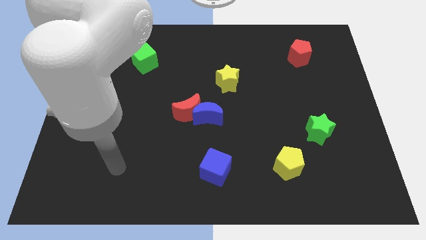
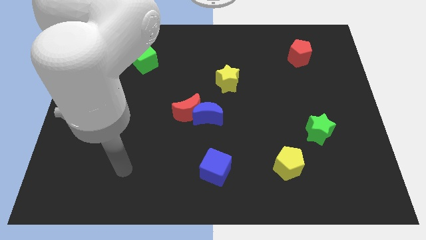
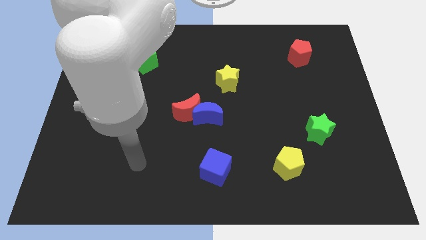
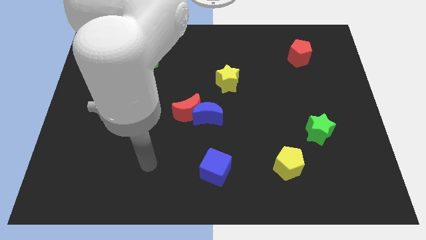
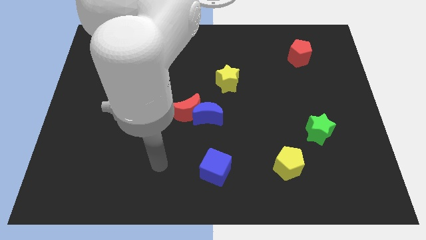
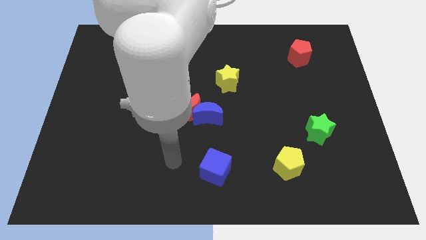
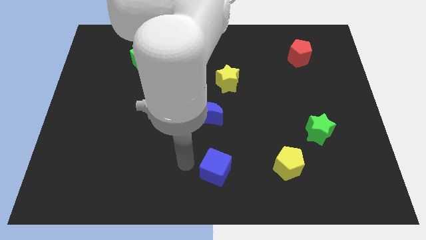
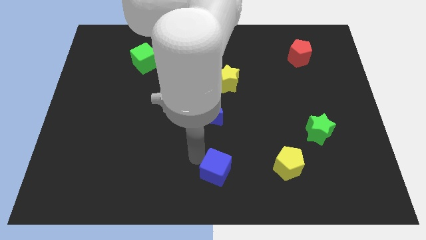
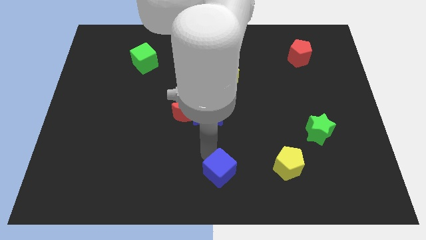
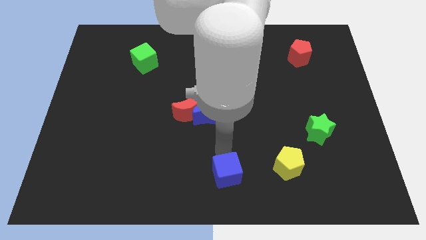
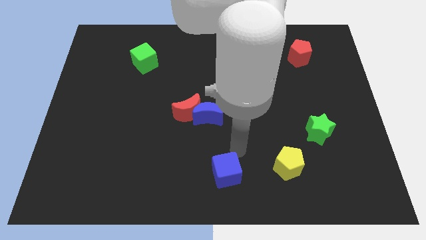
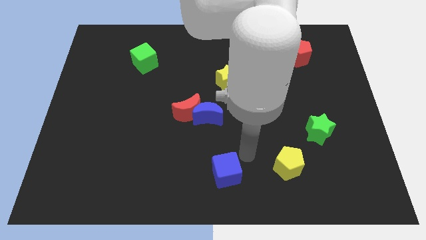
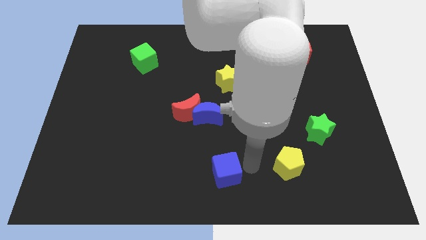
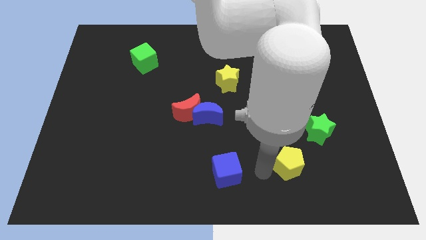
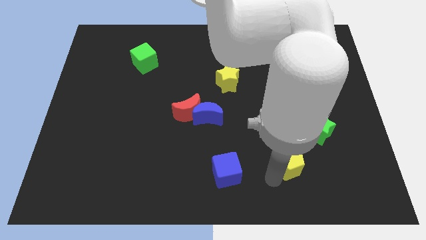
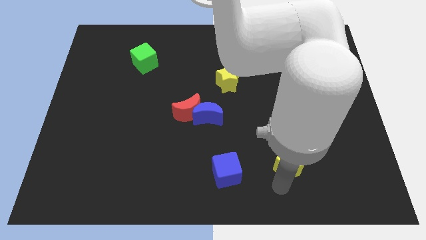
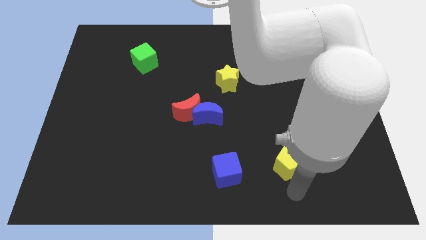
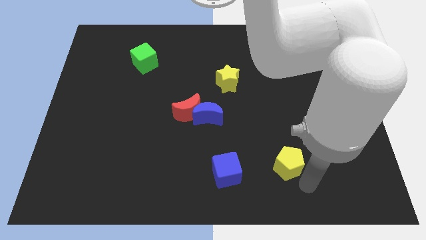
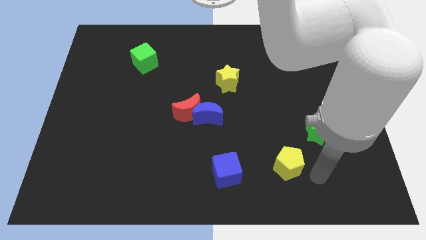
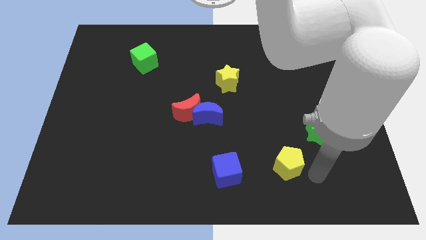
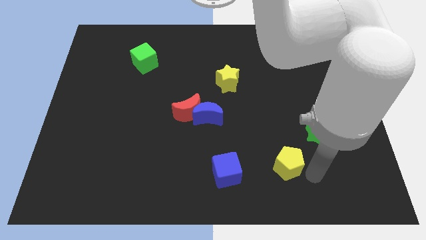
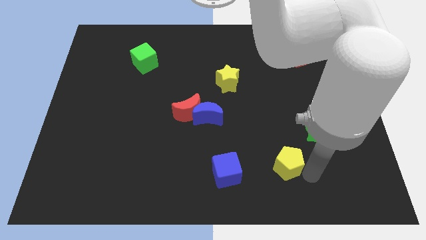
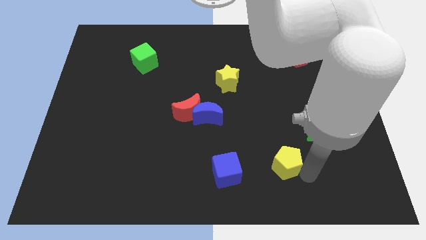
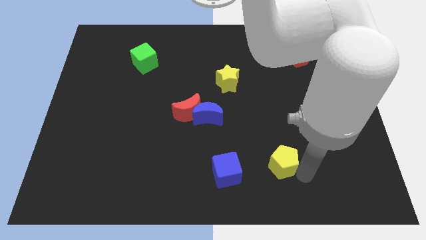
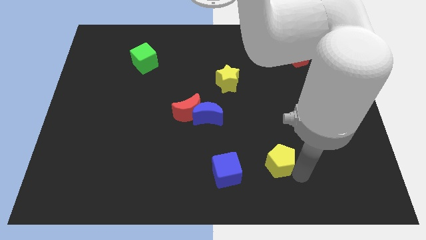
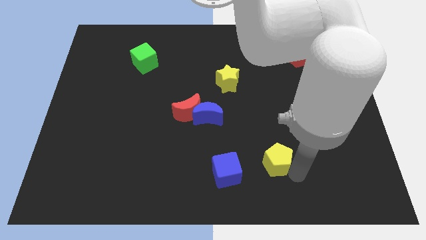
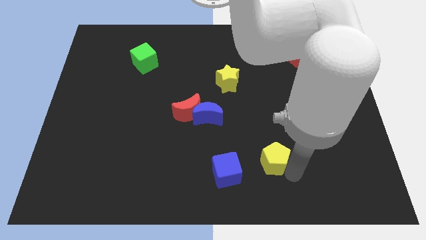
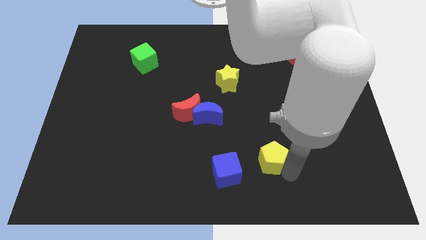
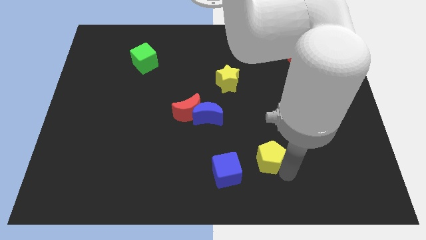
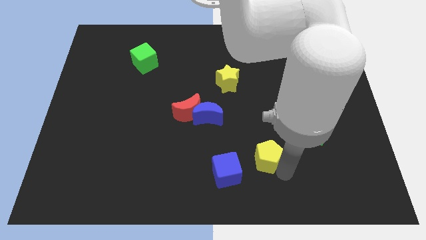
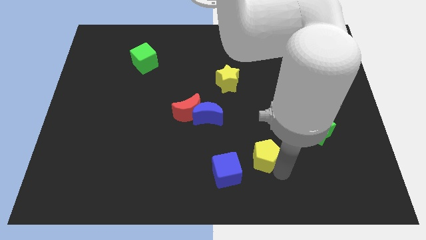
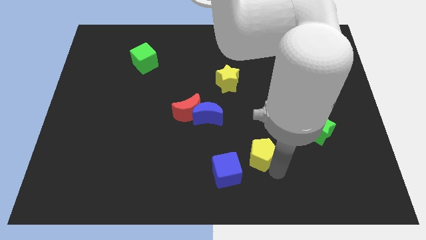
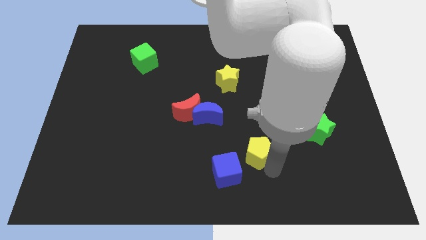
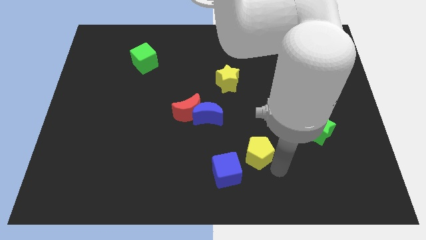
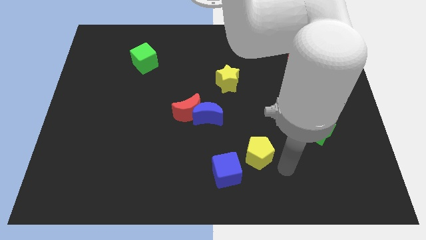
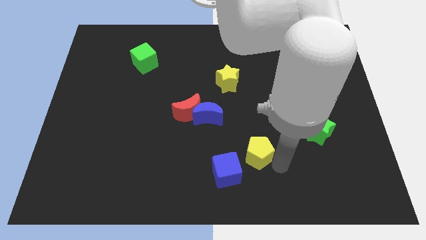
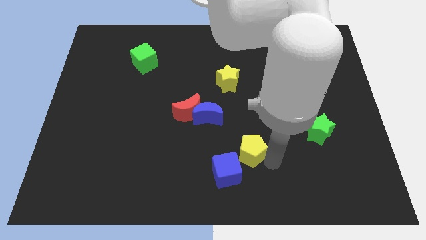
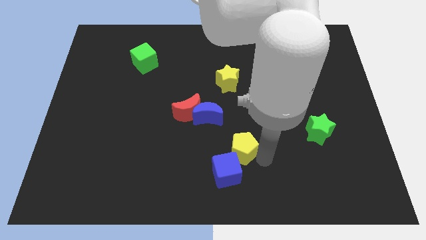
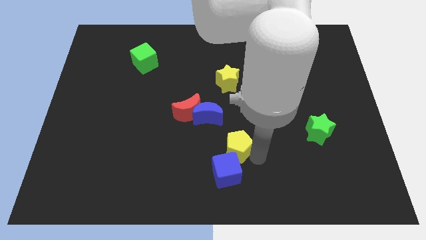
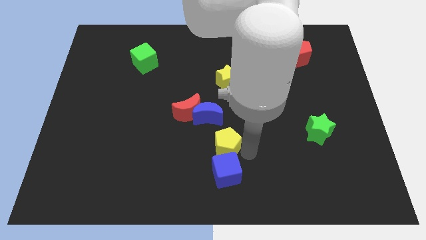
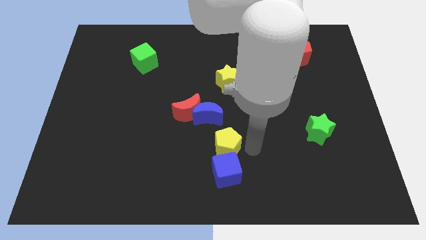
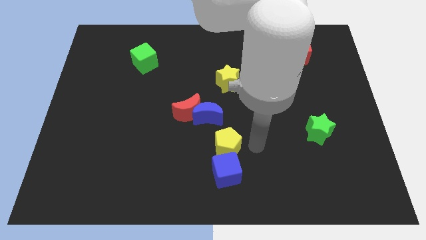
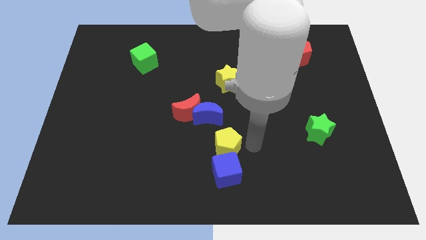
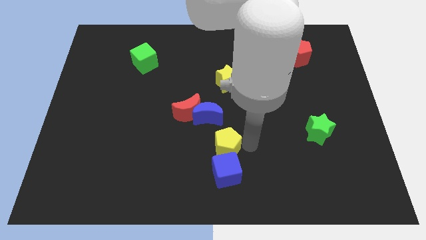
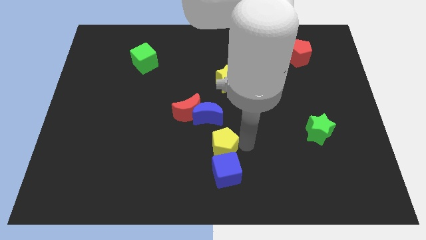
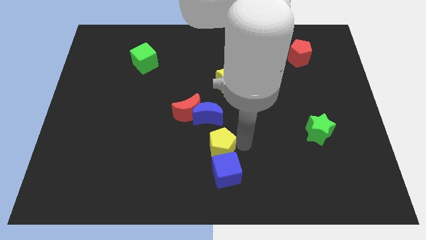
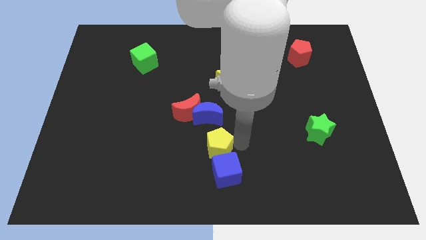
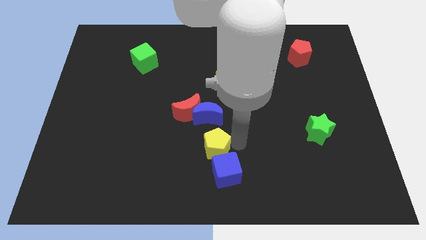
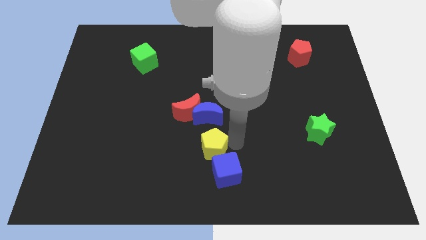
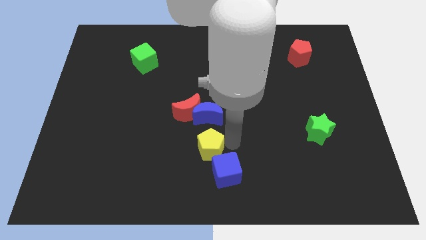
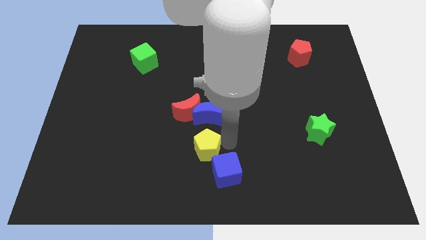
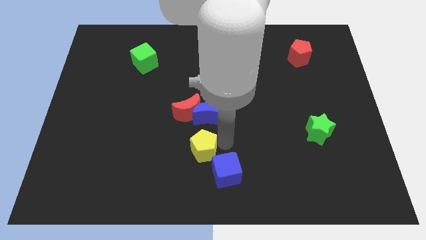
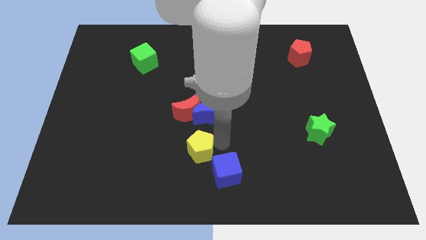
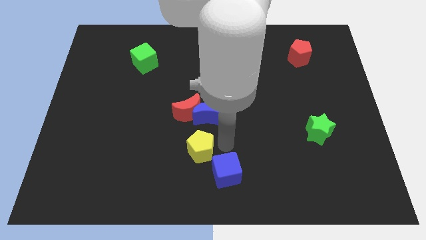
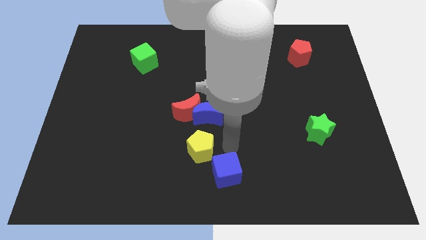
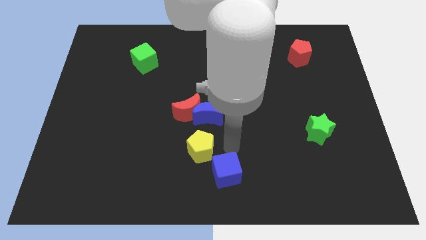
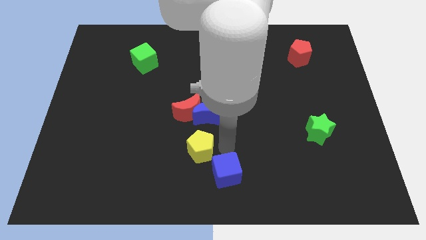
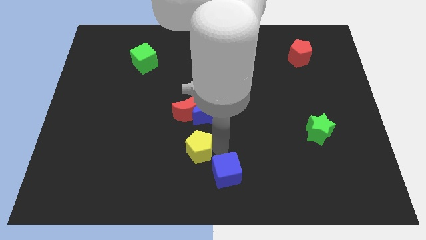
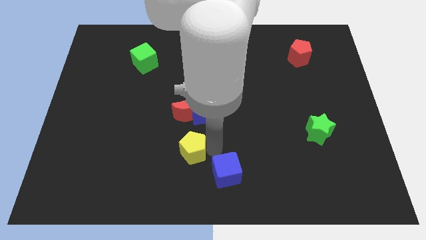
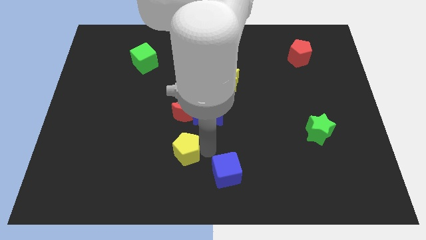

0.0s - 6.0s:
push the yellow pentagon left

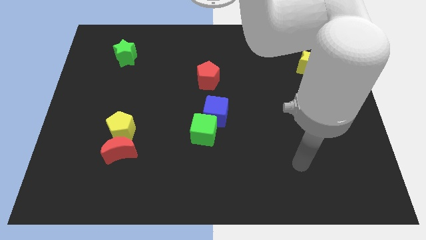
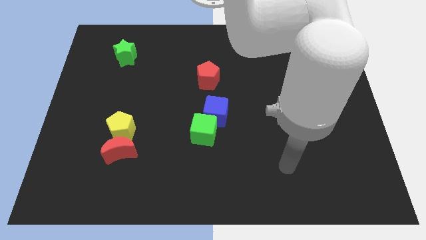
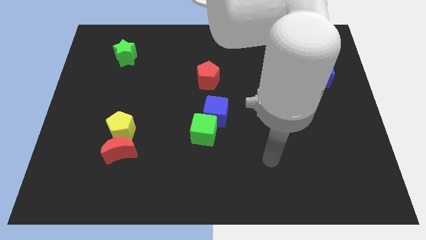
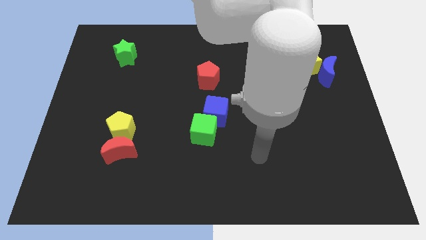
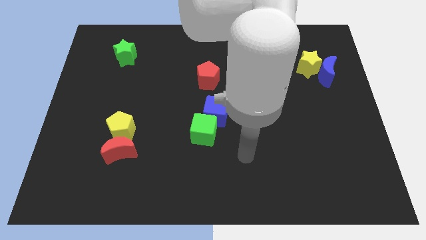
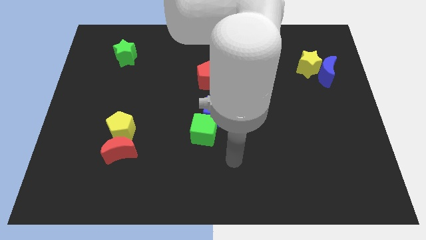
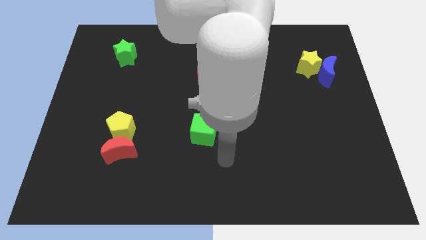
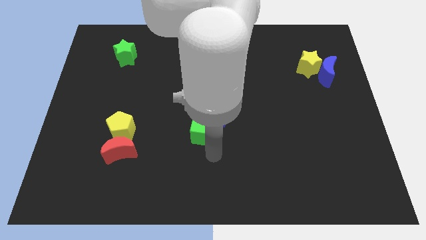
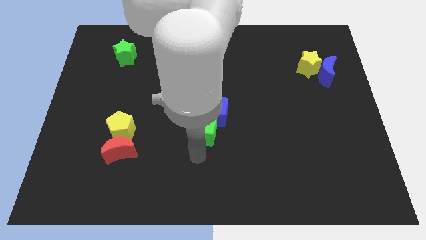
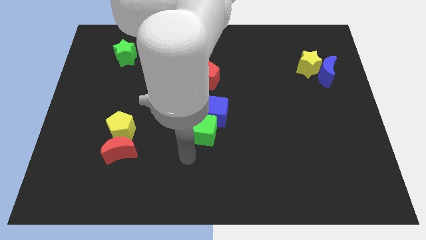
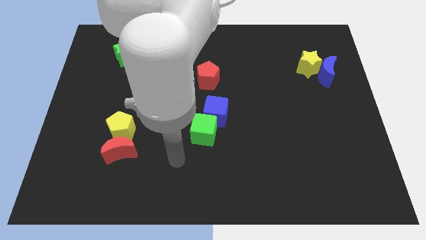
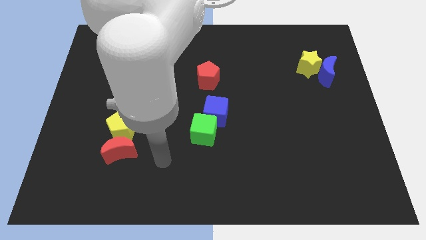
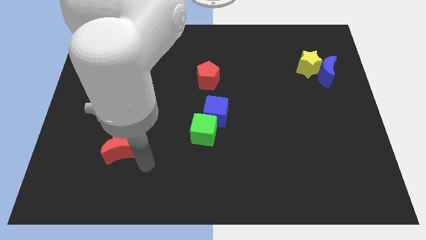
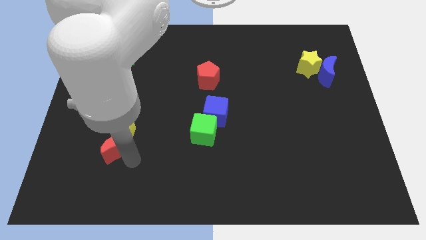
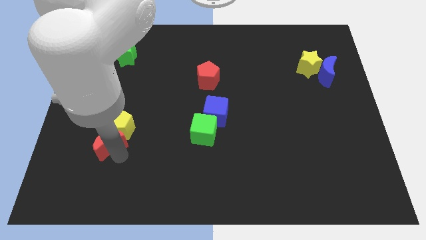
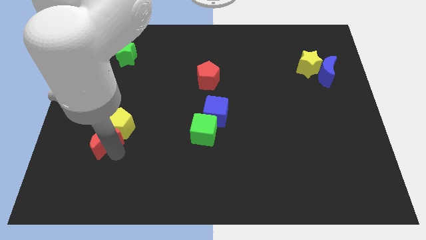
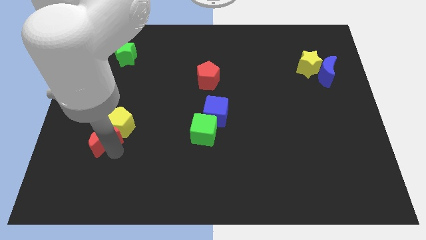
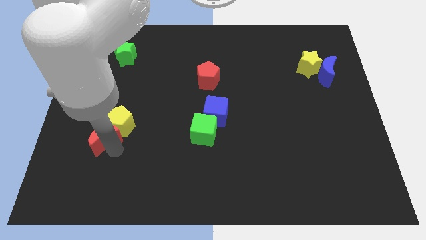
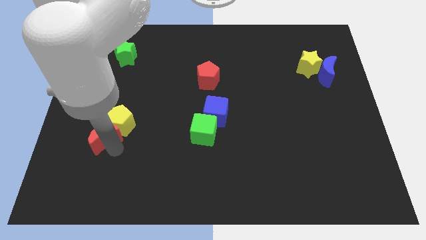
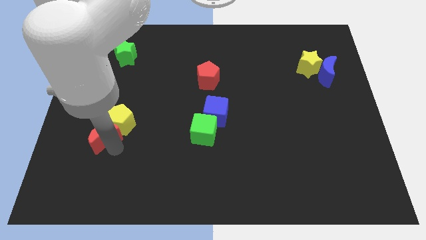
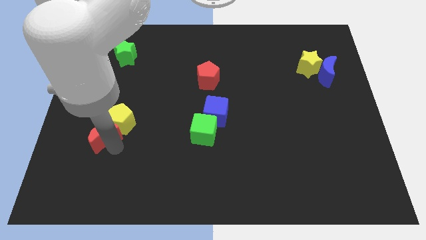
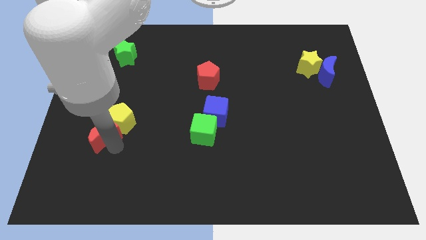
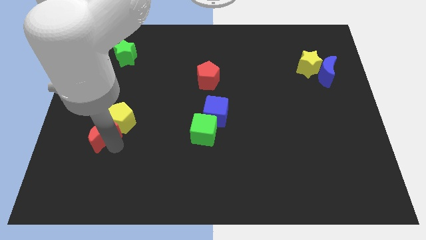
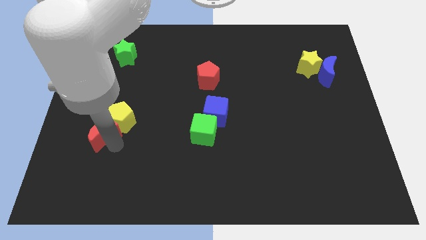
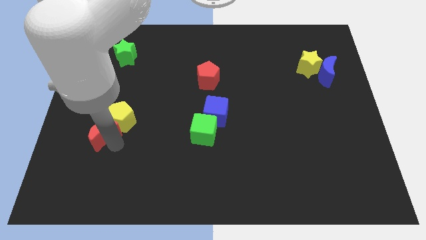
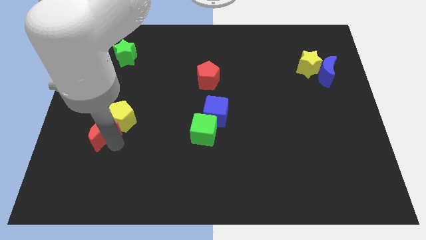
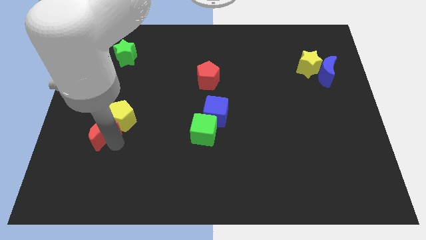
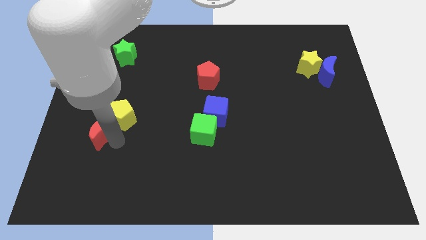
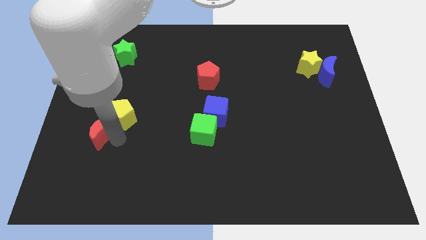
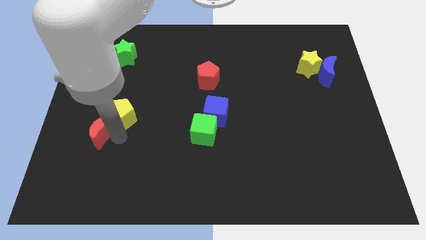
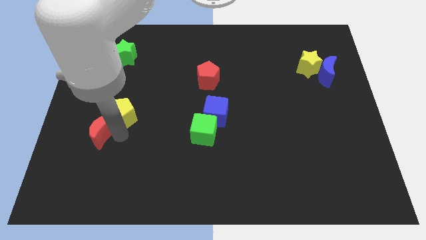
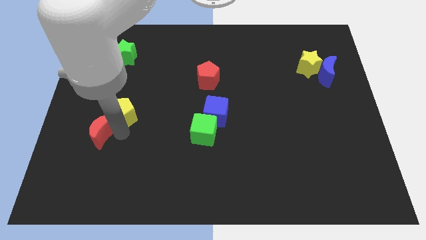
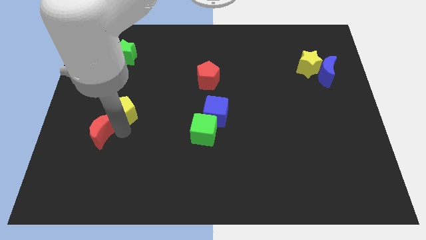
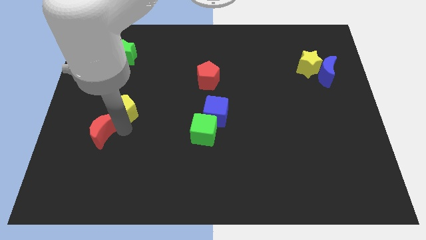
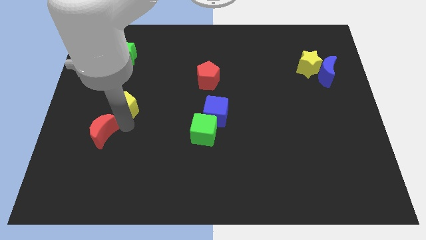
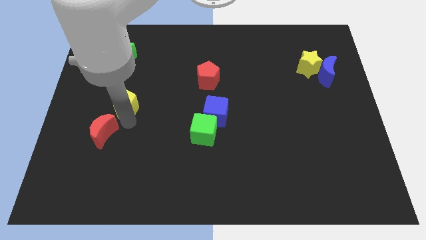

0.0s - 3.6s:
push the yellow pentagon somewhat upwards
